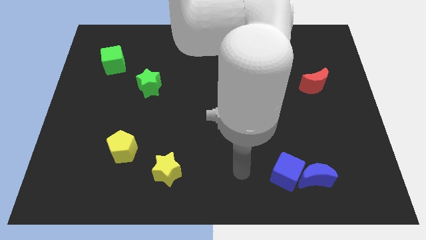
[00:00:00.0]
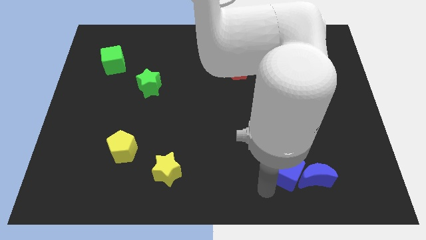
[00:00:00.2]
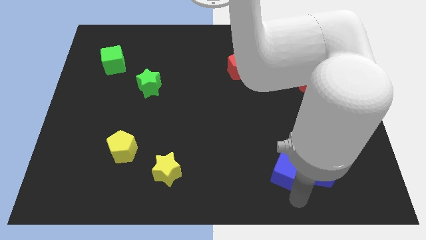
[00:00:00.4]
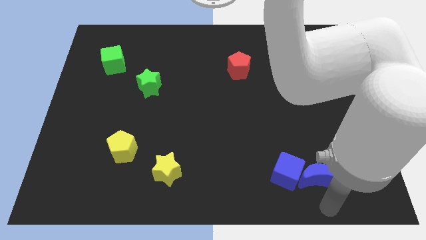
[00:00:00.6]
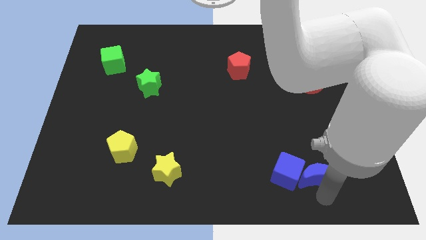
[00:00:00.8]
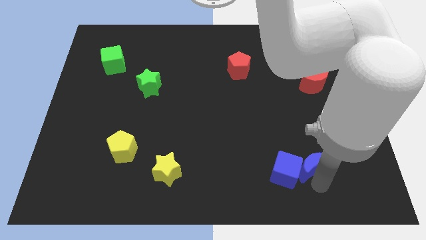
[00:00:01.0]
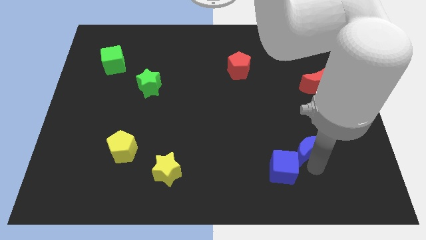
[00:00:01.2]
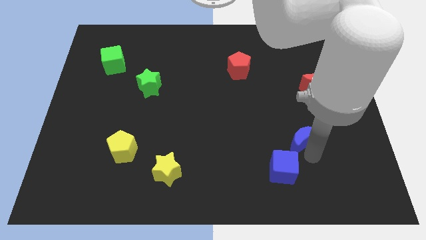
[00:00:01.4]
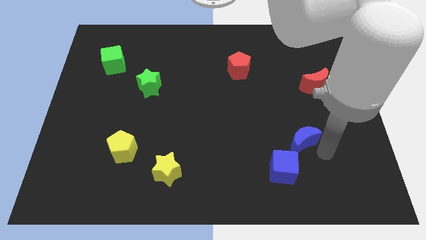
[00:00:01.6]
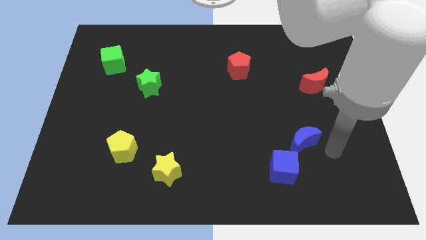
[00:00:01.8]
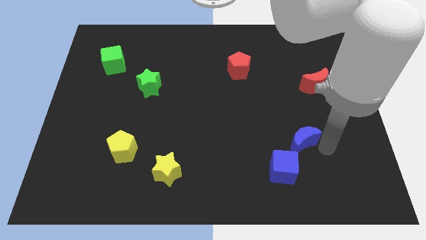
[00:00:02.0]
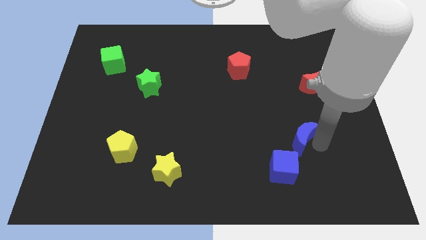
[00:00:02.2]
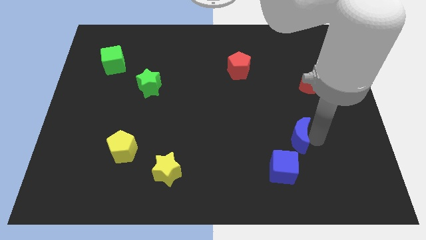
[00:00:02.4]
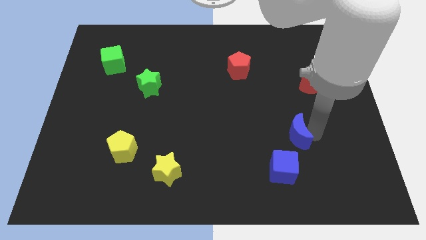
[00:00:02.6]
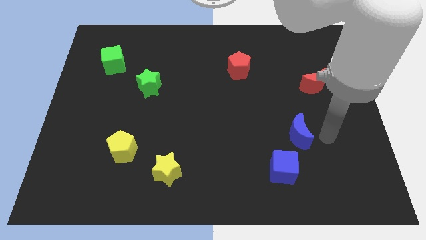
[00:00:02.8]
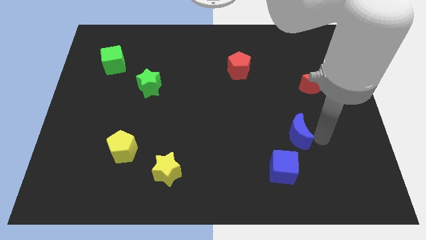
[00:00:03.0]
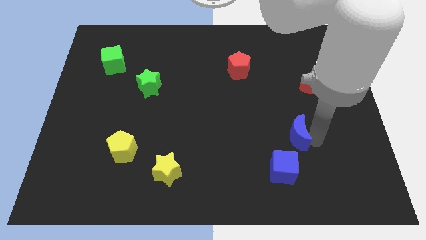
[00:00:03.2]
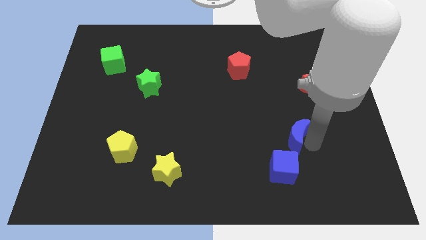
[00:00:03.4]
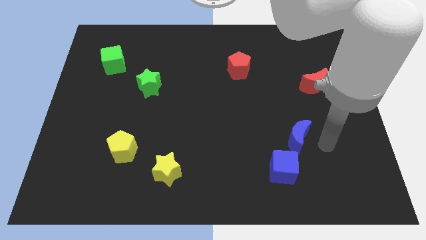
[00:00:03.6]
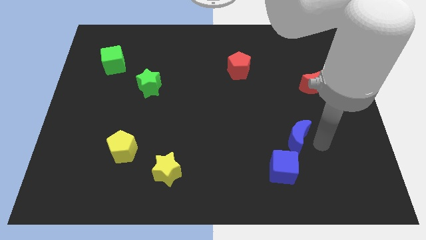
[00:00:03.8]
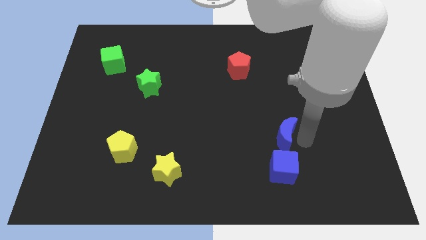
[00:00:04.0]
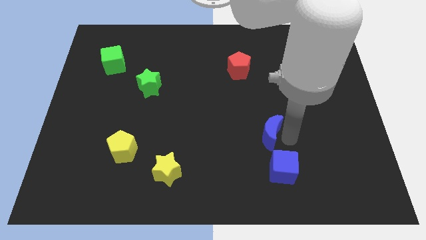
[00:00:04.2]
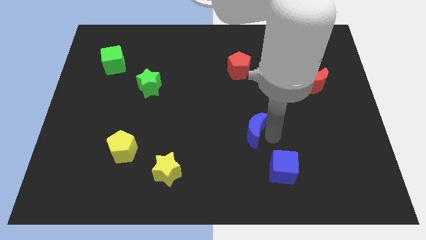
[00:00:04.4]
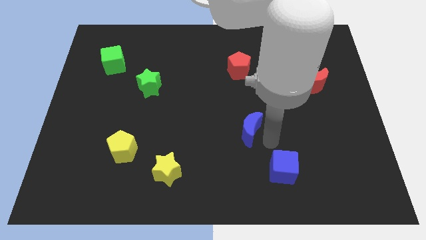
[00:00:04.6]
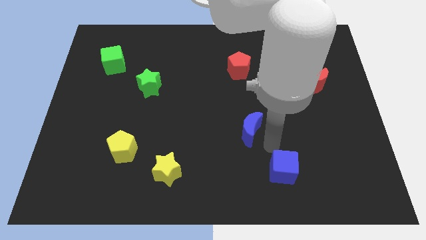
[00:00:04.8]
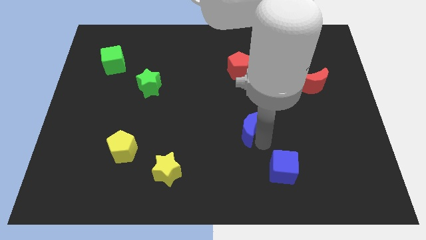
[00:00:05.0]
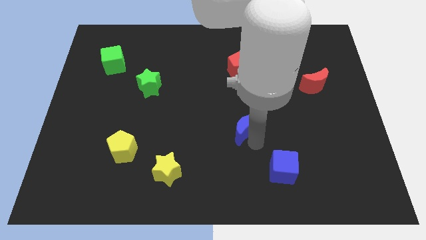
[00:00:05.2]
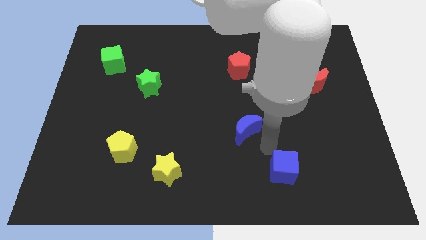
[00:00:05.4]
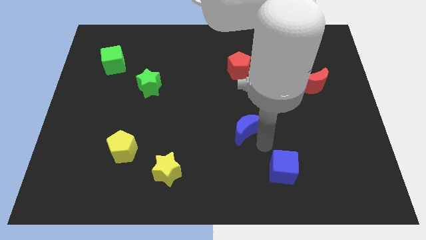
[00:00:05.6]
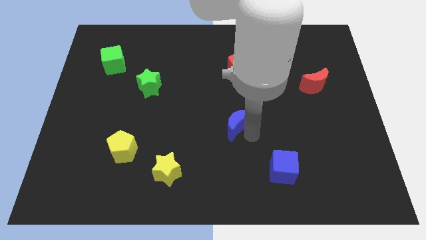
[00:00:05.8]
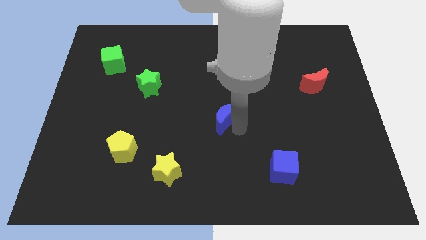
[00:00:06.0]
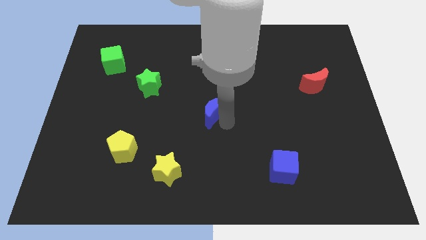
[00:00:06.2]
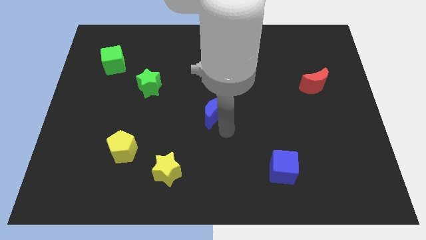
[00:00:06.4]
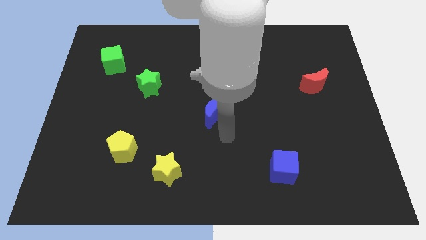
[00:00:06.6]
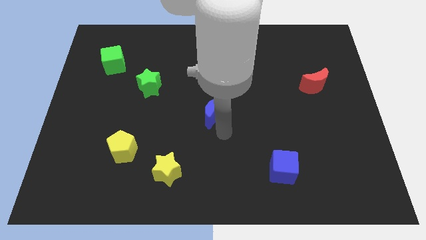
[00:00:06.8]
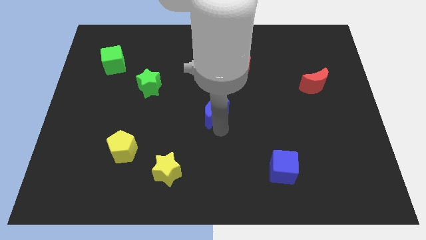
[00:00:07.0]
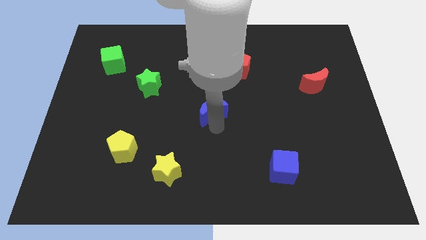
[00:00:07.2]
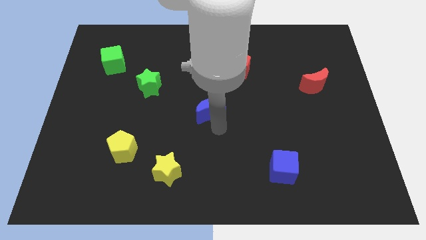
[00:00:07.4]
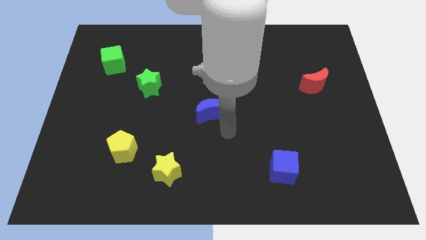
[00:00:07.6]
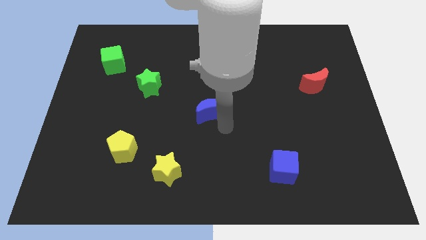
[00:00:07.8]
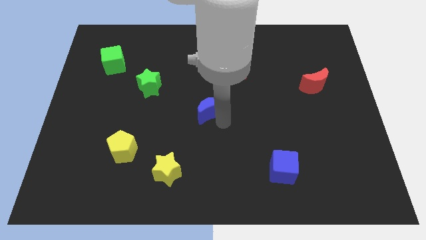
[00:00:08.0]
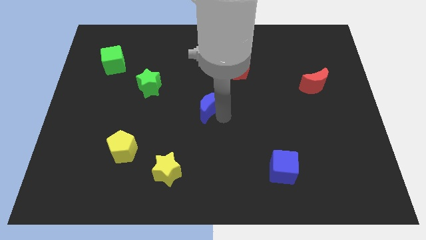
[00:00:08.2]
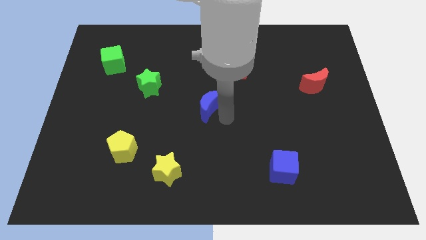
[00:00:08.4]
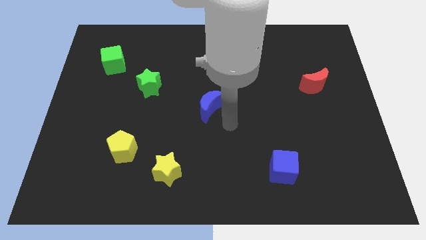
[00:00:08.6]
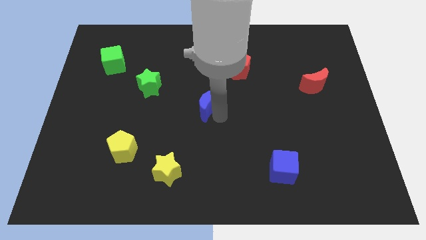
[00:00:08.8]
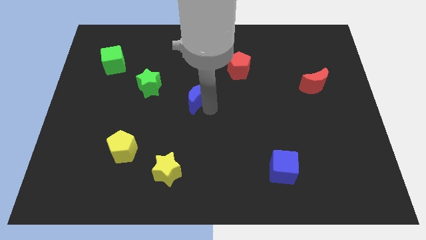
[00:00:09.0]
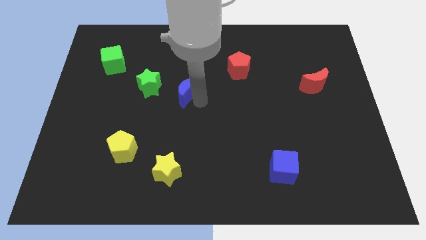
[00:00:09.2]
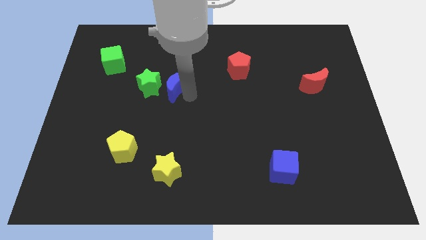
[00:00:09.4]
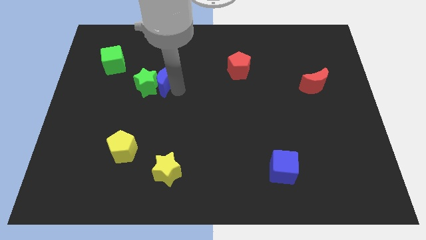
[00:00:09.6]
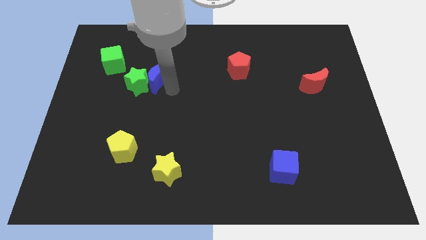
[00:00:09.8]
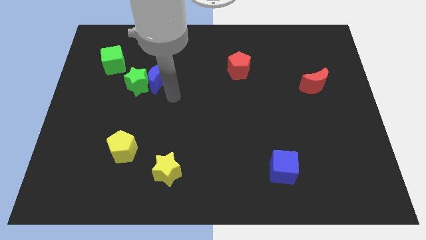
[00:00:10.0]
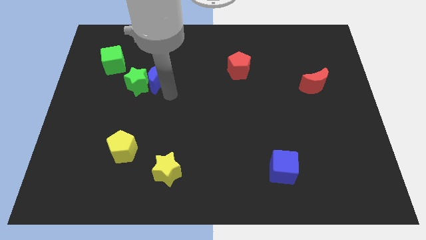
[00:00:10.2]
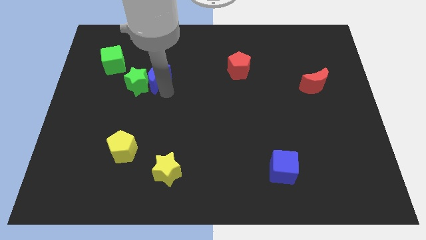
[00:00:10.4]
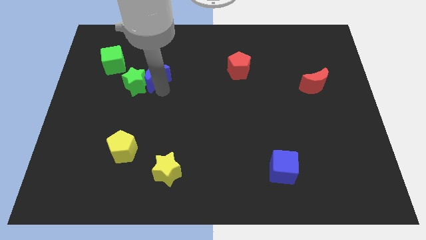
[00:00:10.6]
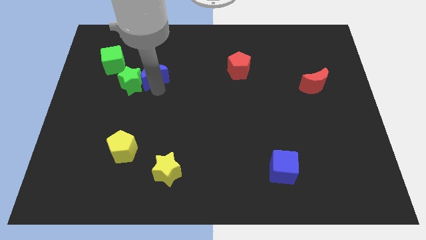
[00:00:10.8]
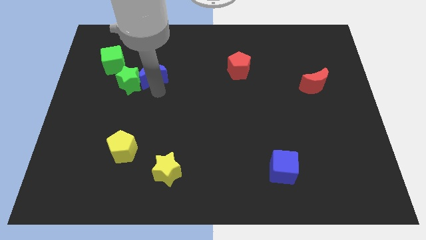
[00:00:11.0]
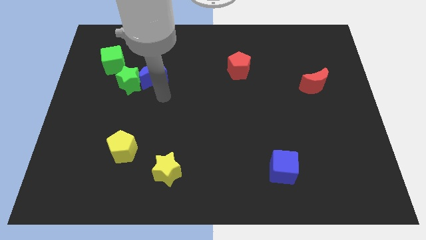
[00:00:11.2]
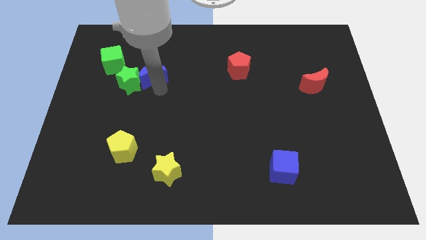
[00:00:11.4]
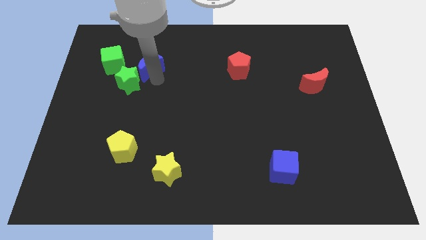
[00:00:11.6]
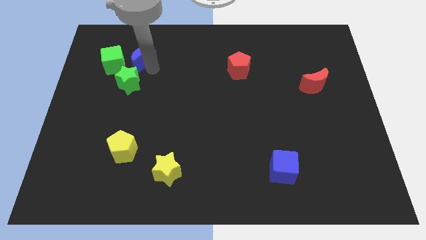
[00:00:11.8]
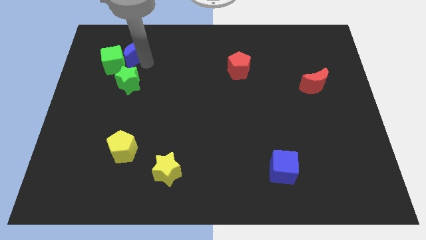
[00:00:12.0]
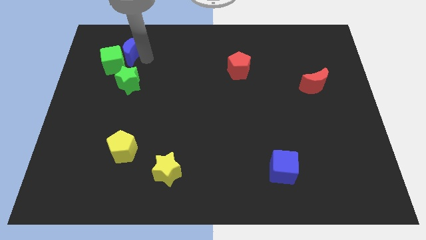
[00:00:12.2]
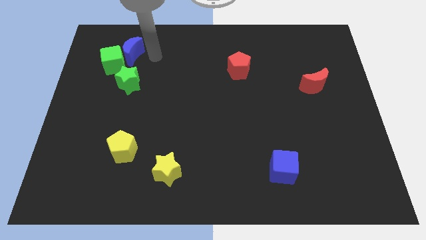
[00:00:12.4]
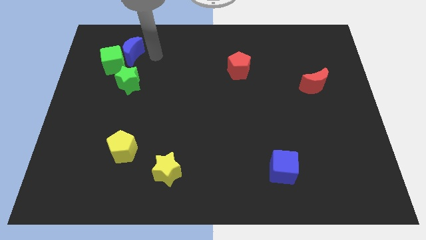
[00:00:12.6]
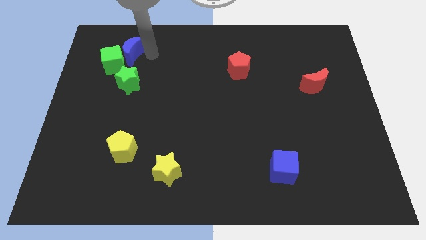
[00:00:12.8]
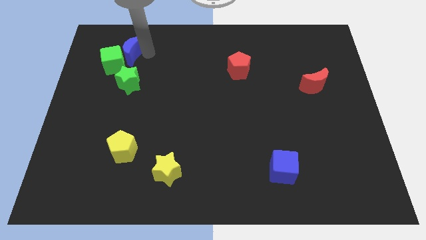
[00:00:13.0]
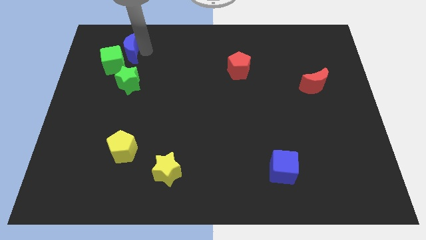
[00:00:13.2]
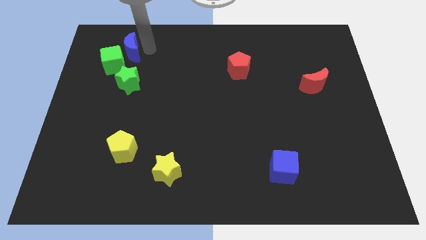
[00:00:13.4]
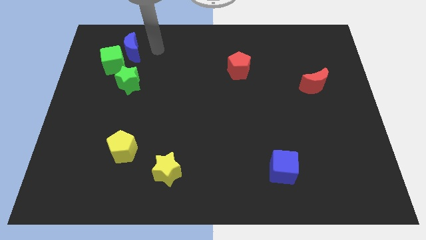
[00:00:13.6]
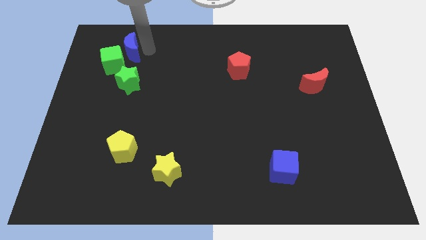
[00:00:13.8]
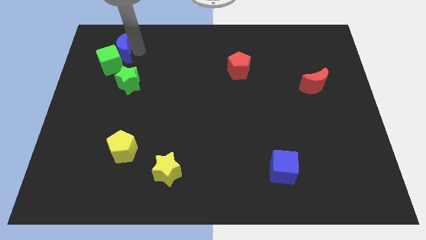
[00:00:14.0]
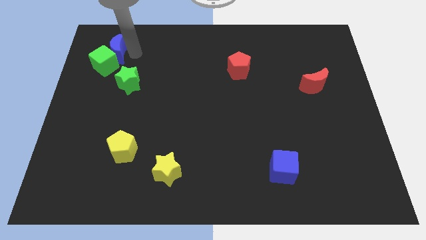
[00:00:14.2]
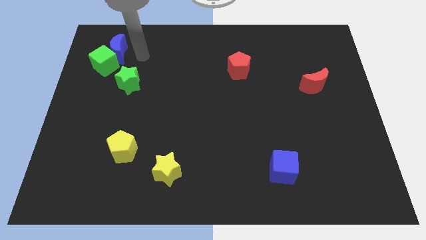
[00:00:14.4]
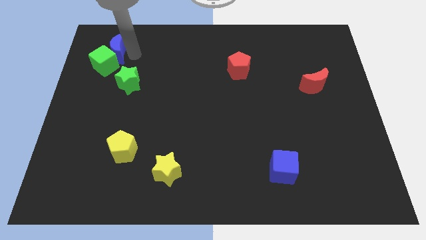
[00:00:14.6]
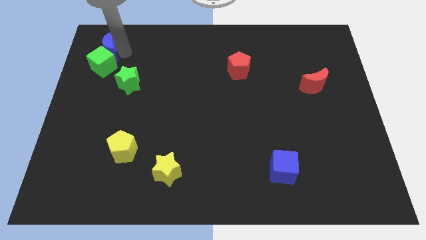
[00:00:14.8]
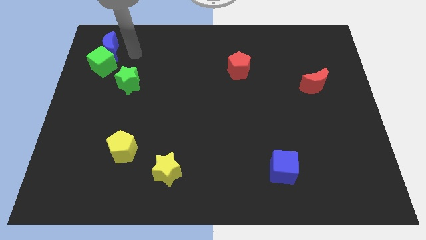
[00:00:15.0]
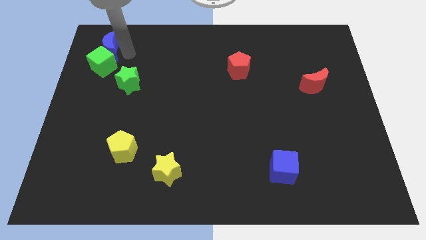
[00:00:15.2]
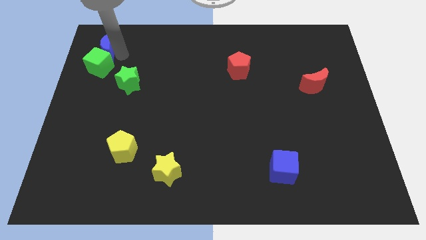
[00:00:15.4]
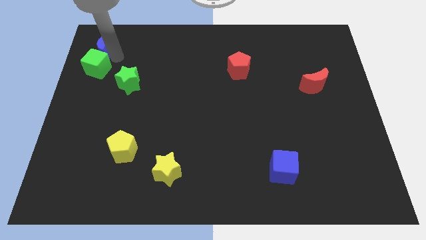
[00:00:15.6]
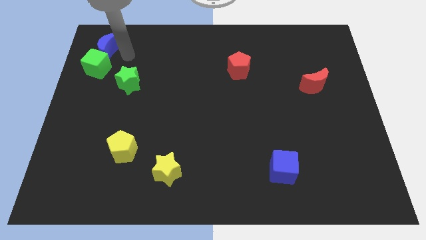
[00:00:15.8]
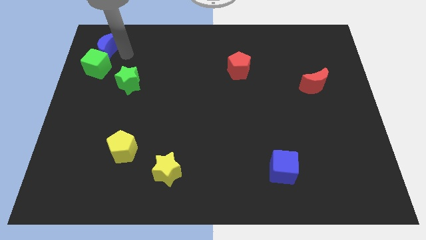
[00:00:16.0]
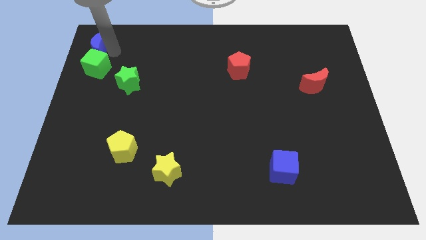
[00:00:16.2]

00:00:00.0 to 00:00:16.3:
put the blue moon to the top left
